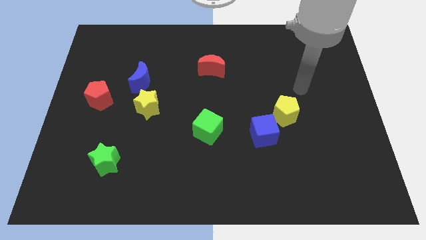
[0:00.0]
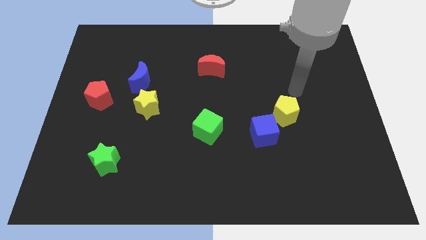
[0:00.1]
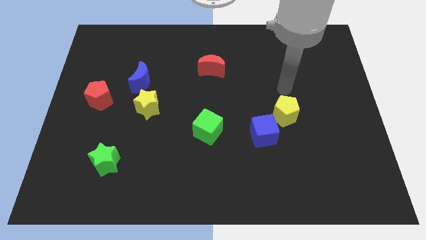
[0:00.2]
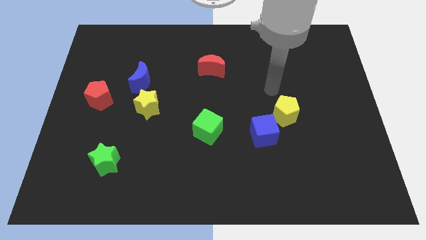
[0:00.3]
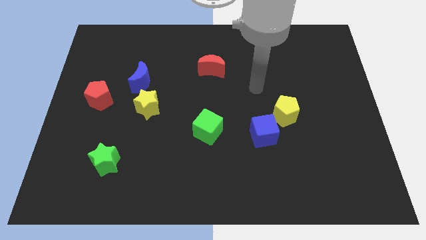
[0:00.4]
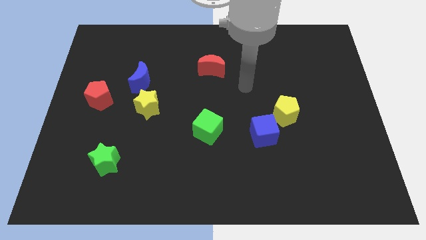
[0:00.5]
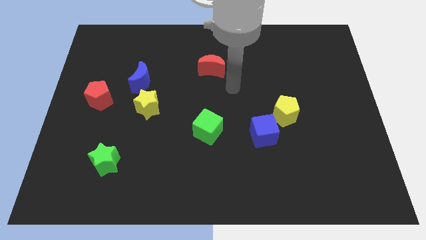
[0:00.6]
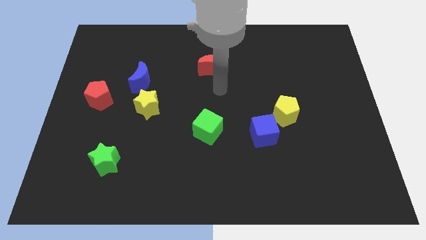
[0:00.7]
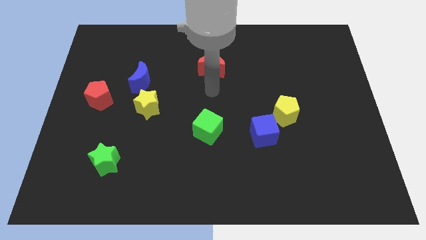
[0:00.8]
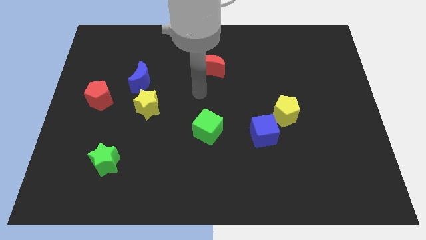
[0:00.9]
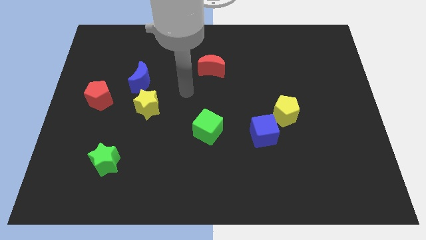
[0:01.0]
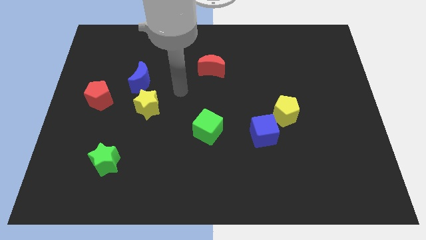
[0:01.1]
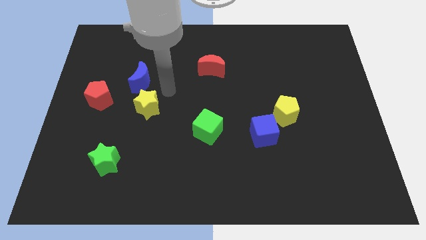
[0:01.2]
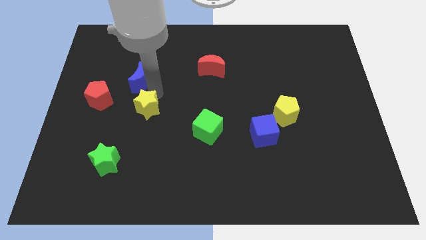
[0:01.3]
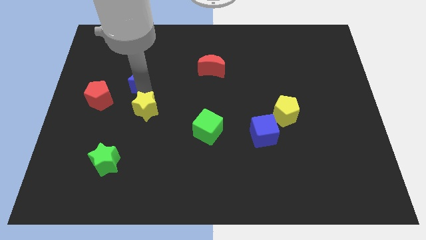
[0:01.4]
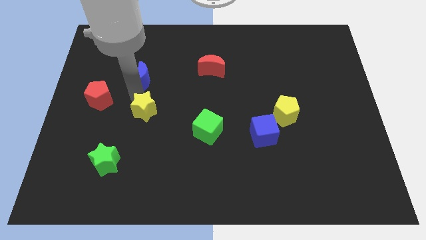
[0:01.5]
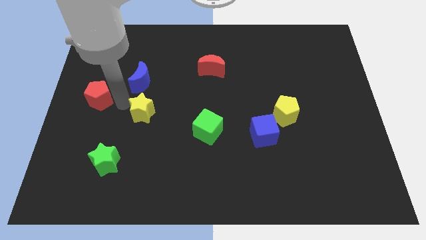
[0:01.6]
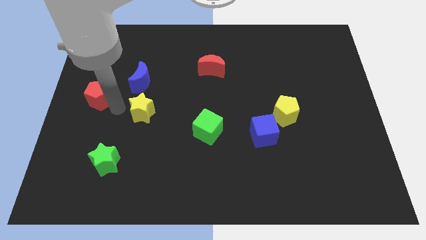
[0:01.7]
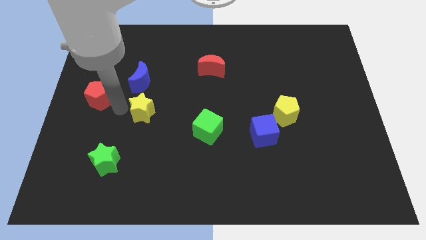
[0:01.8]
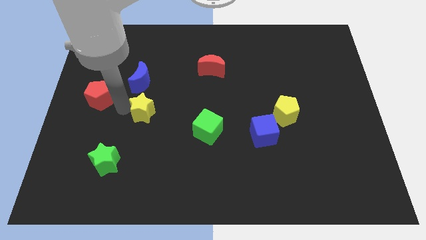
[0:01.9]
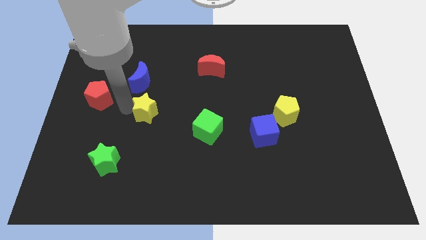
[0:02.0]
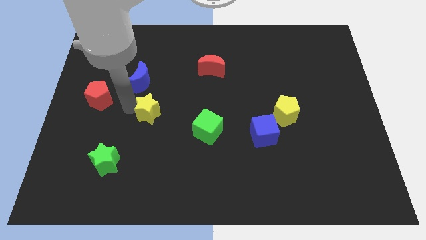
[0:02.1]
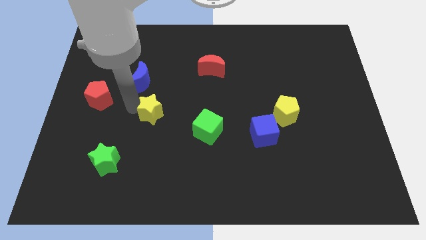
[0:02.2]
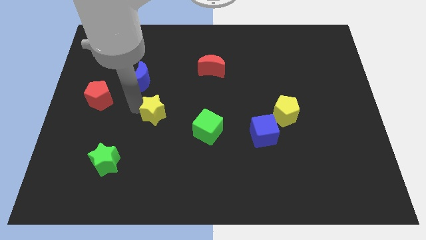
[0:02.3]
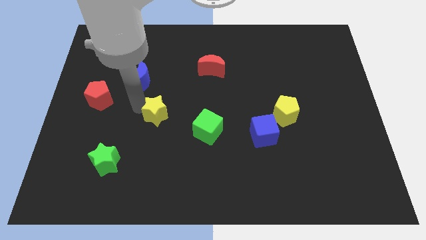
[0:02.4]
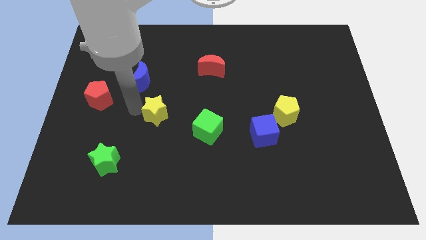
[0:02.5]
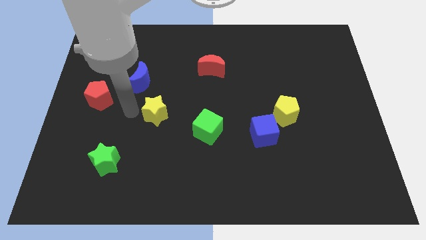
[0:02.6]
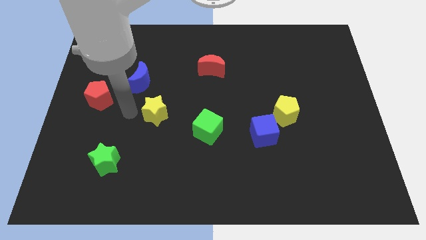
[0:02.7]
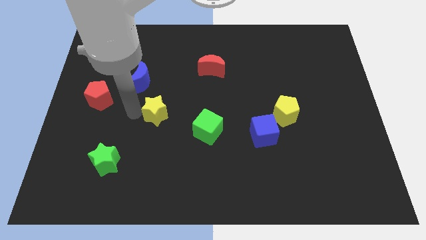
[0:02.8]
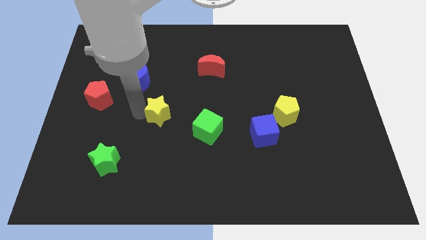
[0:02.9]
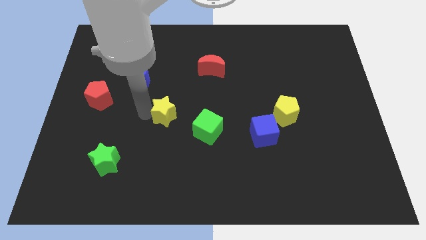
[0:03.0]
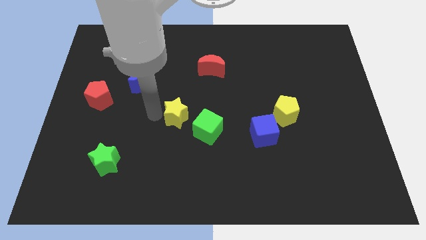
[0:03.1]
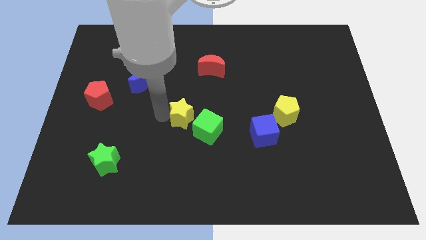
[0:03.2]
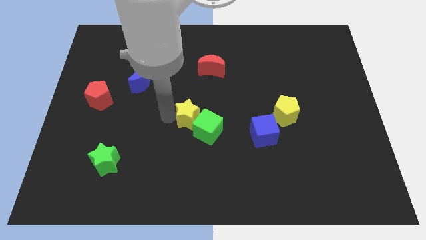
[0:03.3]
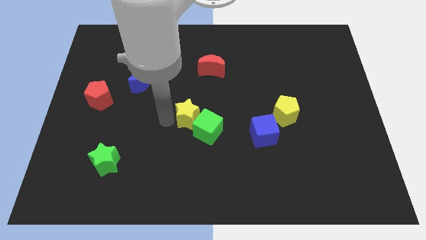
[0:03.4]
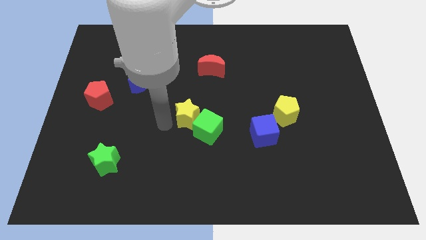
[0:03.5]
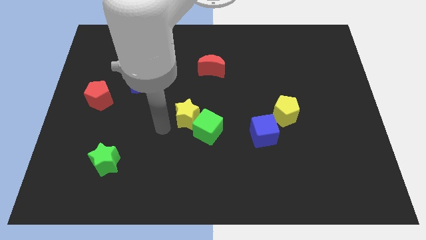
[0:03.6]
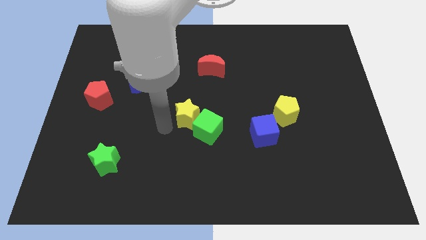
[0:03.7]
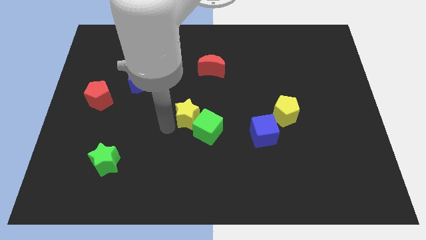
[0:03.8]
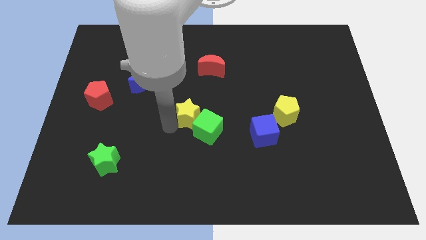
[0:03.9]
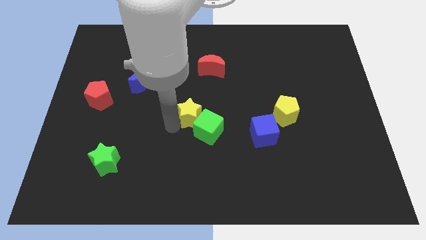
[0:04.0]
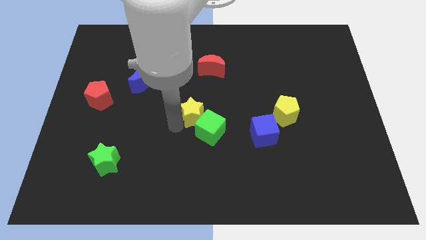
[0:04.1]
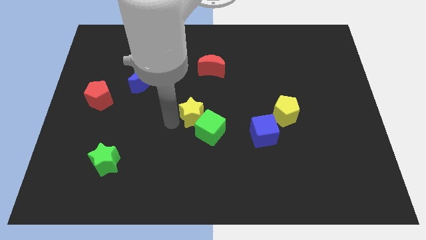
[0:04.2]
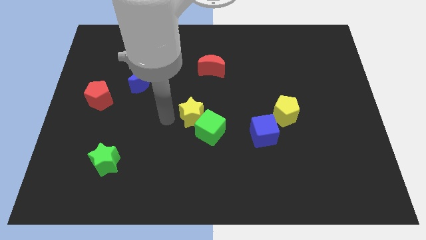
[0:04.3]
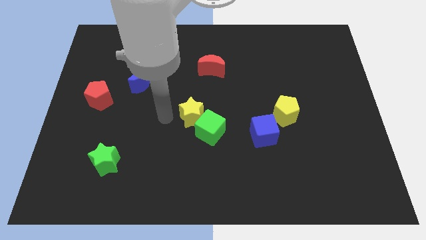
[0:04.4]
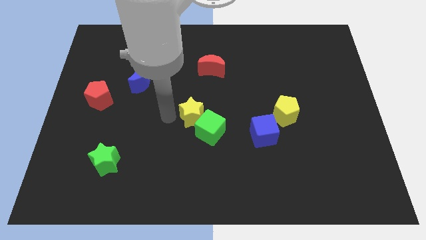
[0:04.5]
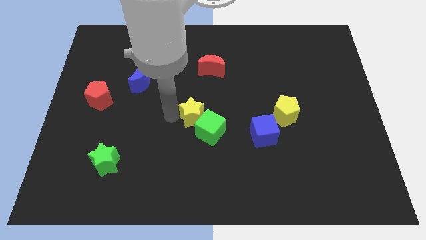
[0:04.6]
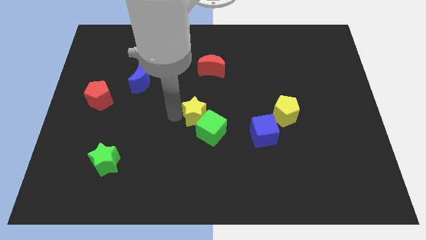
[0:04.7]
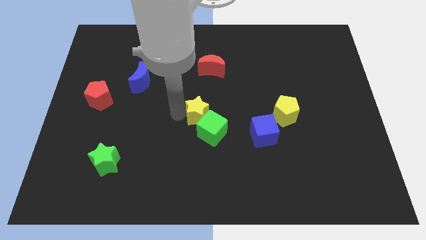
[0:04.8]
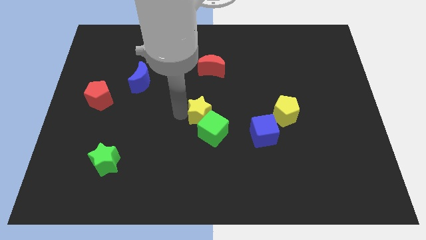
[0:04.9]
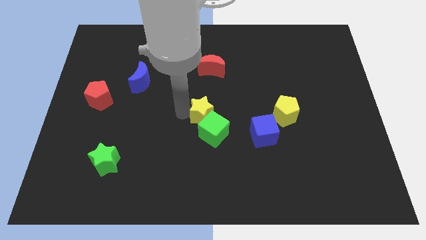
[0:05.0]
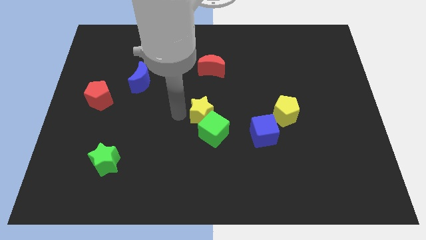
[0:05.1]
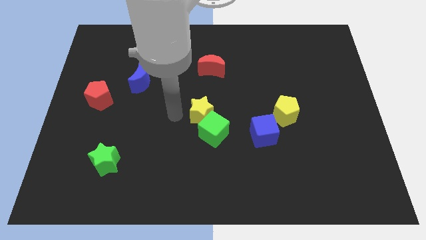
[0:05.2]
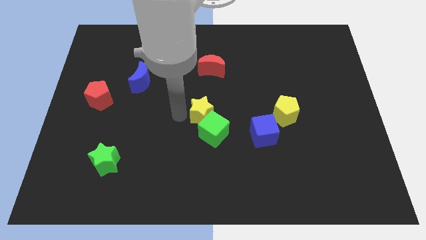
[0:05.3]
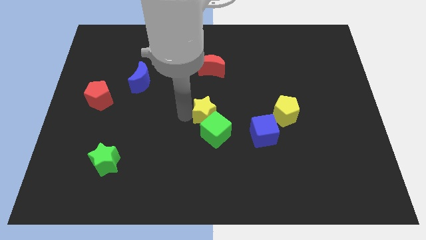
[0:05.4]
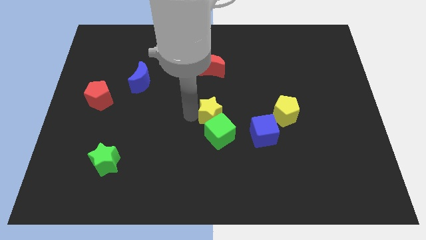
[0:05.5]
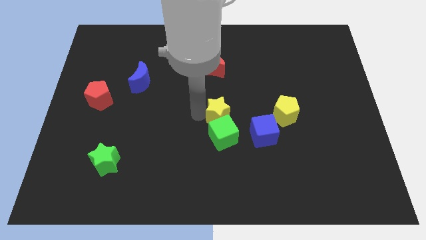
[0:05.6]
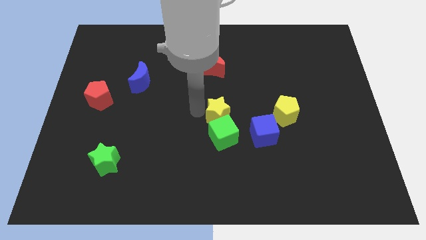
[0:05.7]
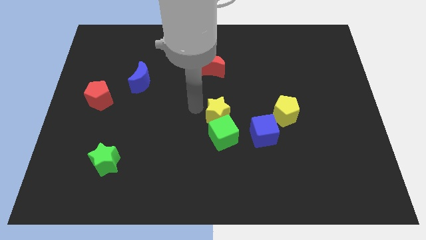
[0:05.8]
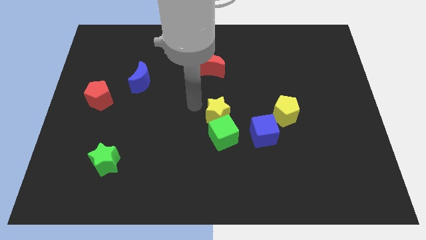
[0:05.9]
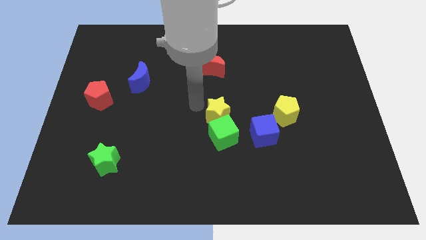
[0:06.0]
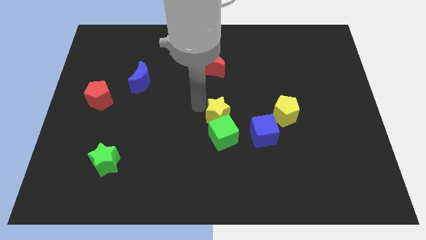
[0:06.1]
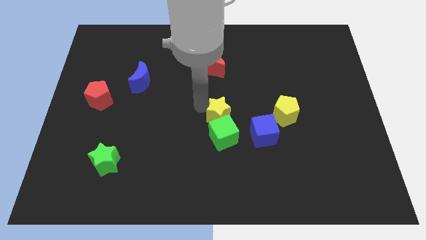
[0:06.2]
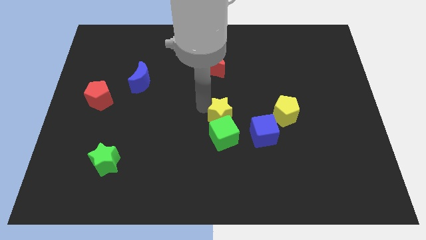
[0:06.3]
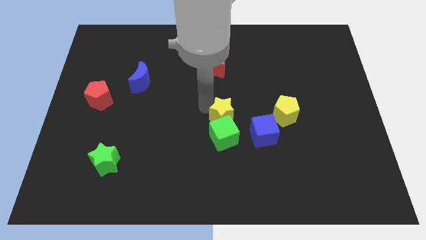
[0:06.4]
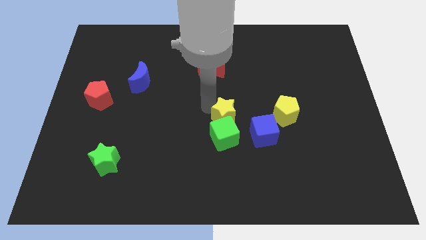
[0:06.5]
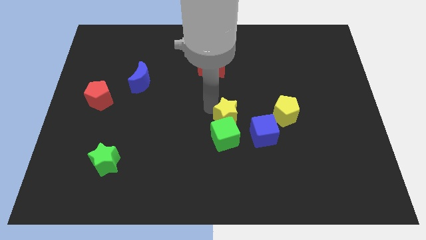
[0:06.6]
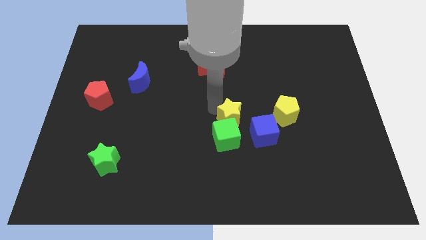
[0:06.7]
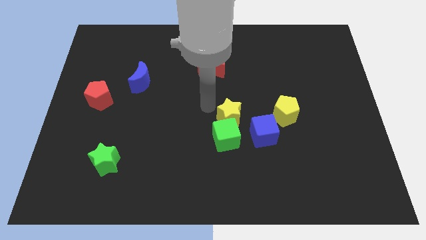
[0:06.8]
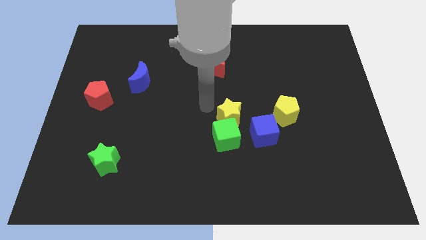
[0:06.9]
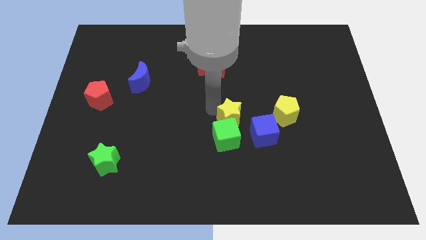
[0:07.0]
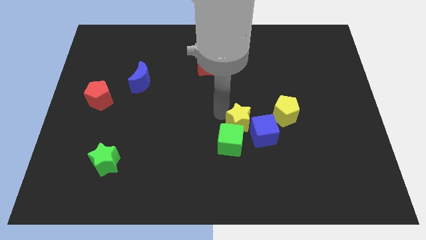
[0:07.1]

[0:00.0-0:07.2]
move the yellow star towards the blue cube
